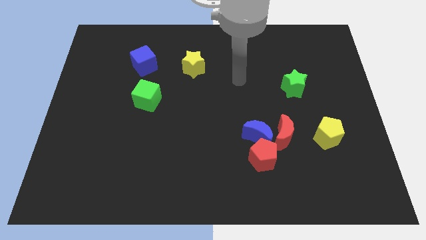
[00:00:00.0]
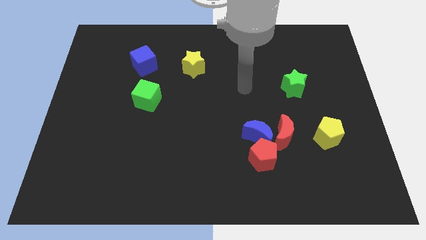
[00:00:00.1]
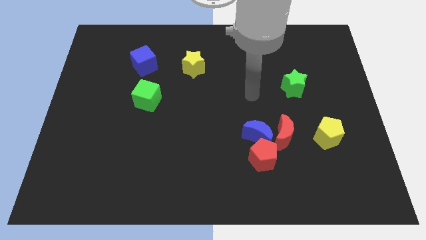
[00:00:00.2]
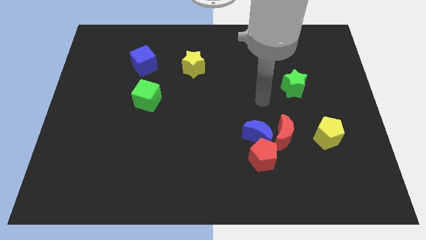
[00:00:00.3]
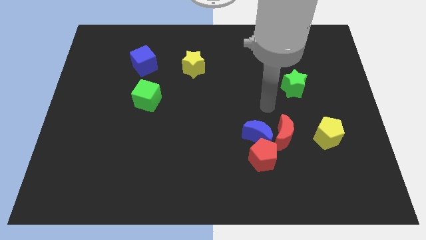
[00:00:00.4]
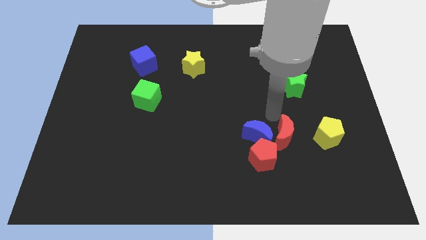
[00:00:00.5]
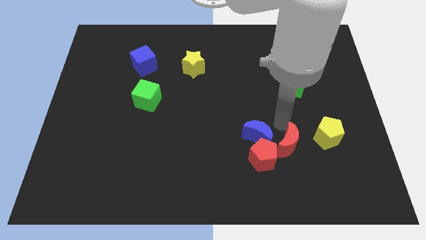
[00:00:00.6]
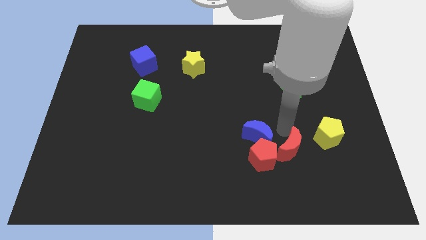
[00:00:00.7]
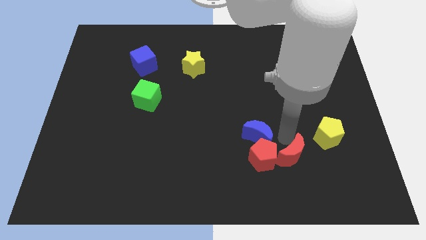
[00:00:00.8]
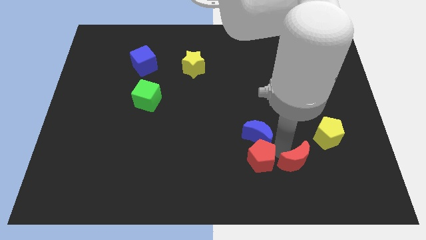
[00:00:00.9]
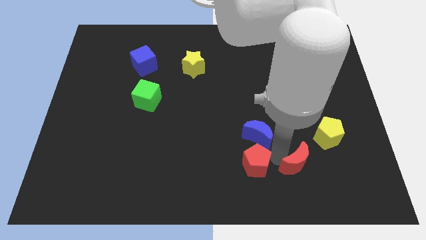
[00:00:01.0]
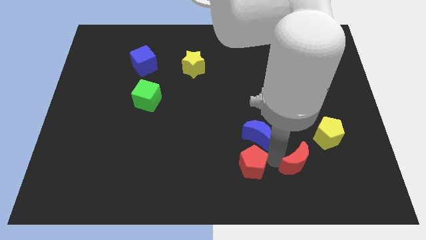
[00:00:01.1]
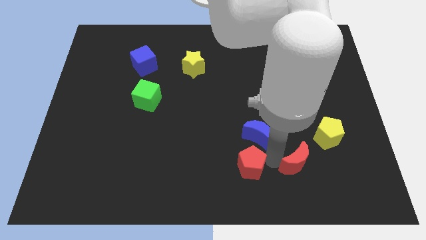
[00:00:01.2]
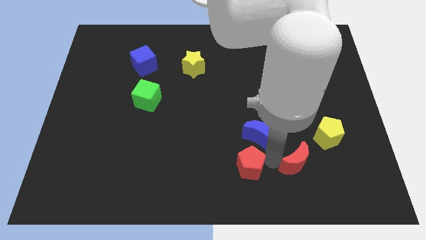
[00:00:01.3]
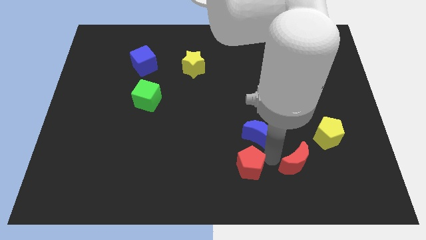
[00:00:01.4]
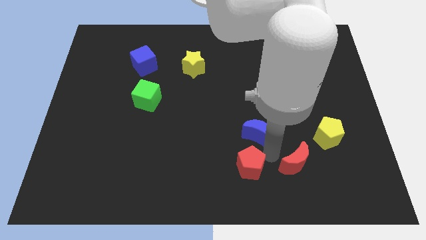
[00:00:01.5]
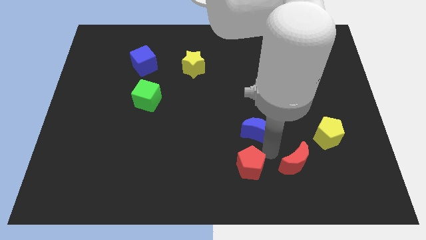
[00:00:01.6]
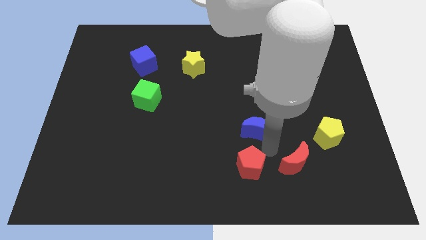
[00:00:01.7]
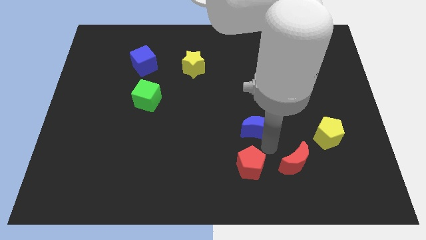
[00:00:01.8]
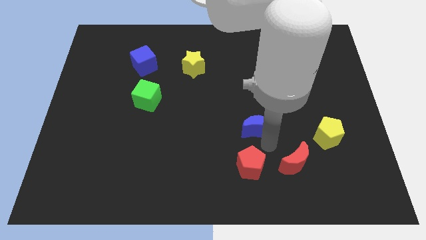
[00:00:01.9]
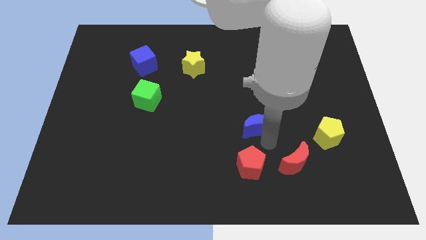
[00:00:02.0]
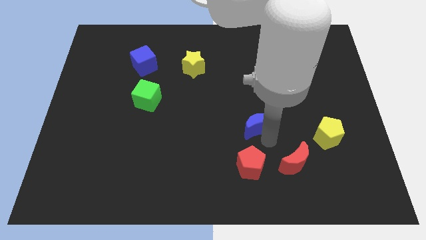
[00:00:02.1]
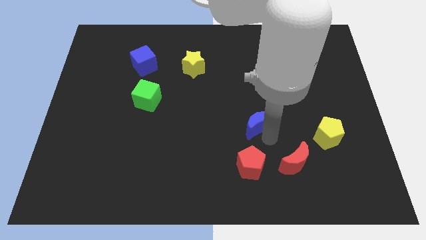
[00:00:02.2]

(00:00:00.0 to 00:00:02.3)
move the blue moon away from the red pentagon and red moon

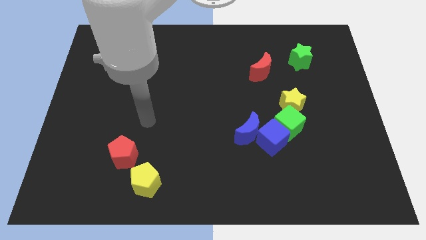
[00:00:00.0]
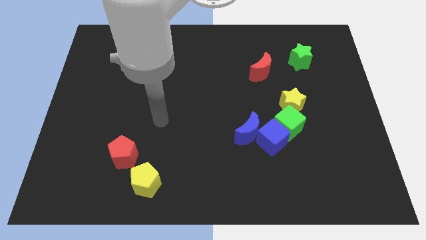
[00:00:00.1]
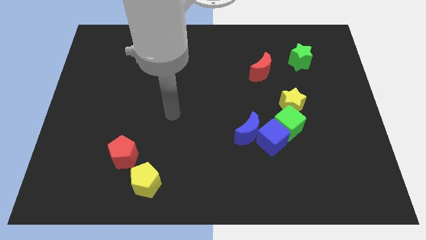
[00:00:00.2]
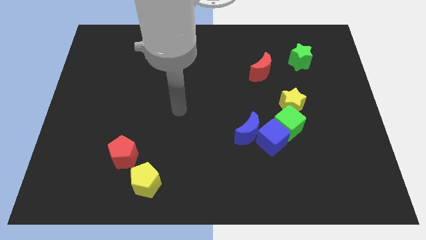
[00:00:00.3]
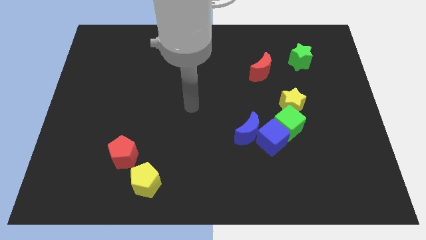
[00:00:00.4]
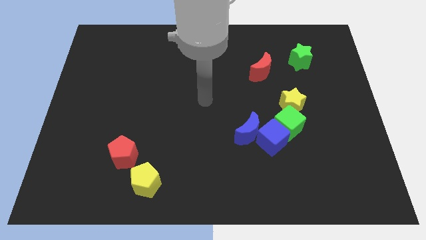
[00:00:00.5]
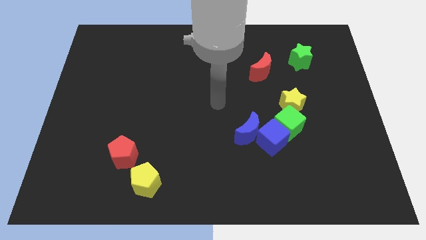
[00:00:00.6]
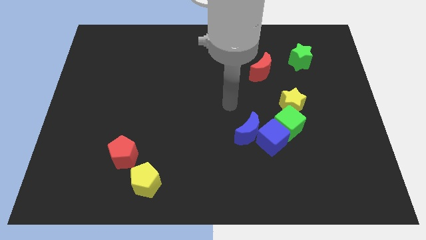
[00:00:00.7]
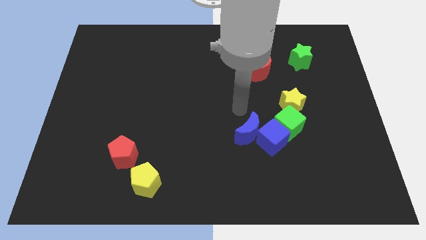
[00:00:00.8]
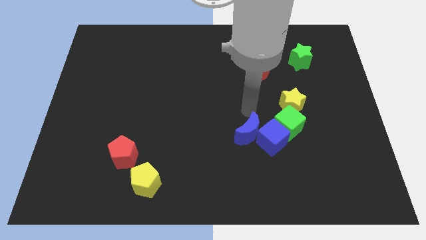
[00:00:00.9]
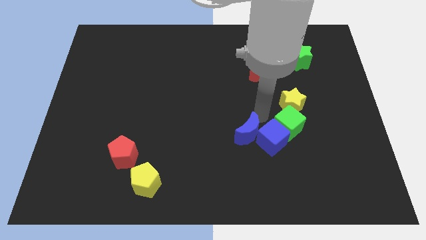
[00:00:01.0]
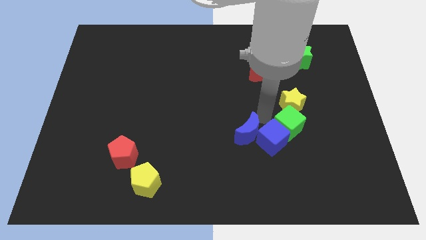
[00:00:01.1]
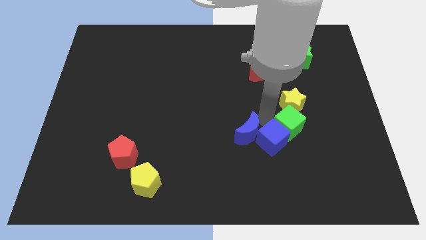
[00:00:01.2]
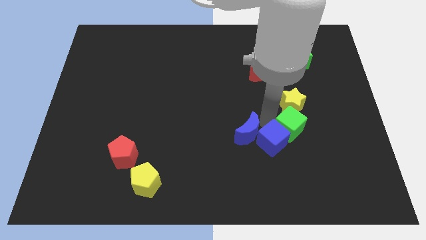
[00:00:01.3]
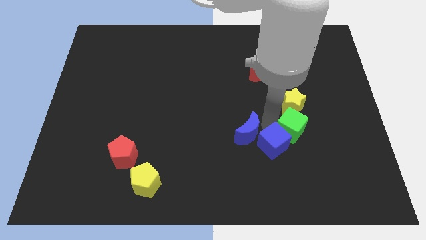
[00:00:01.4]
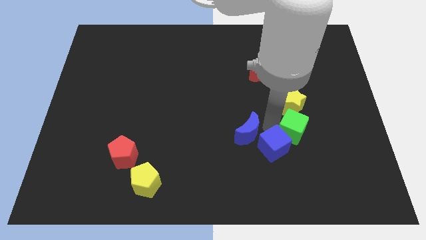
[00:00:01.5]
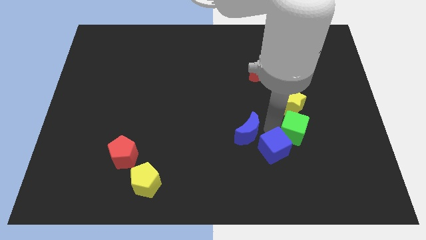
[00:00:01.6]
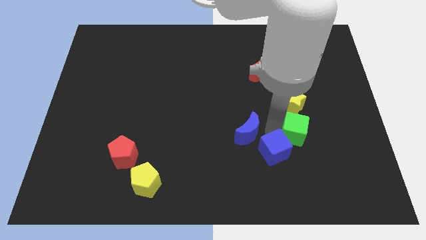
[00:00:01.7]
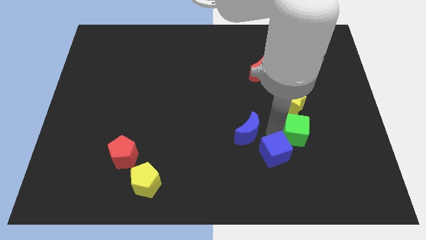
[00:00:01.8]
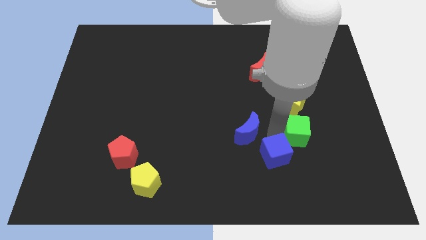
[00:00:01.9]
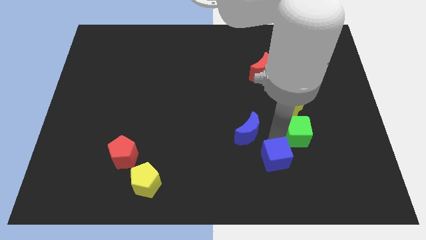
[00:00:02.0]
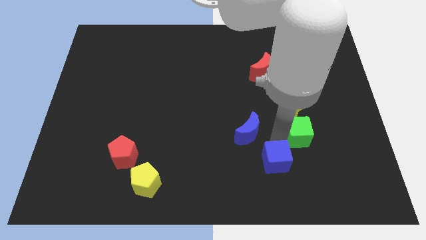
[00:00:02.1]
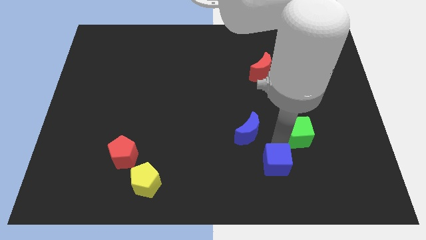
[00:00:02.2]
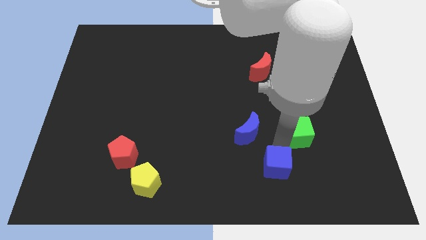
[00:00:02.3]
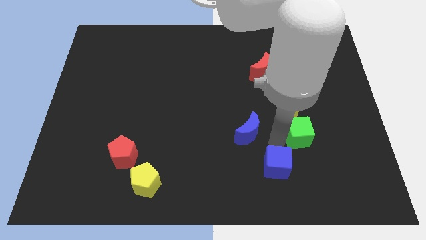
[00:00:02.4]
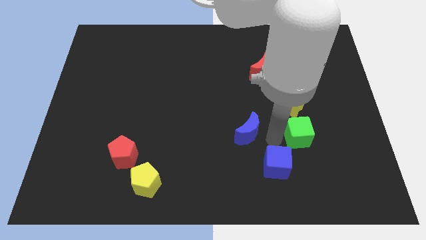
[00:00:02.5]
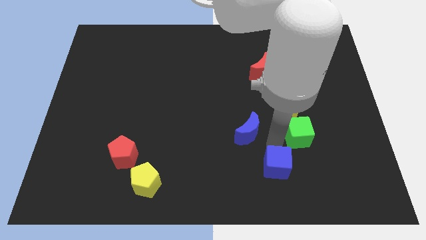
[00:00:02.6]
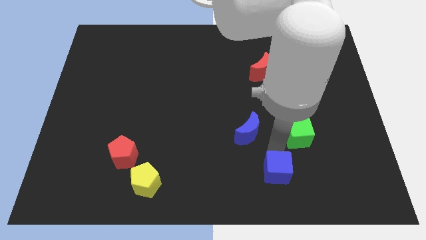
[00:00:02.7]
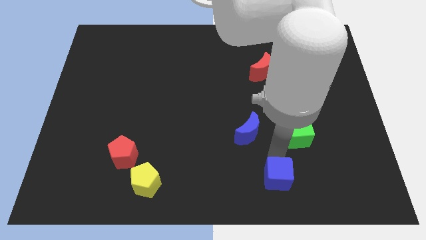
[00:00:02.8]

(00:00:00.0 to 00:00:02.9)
separate the blue cube from the blue moon and green cube

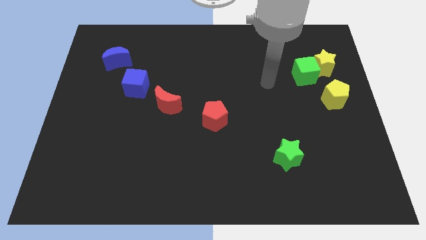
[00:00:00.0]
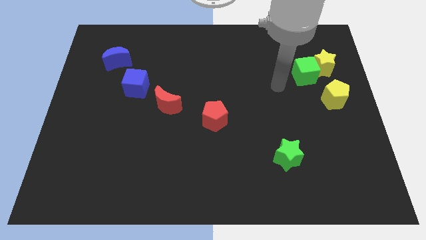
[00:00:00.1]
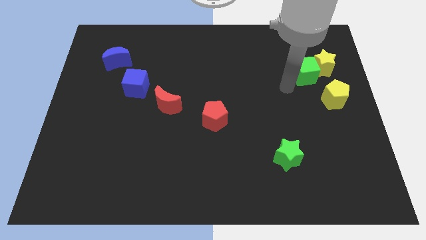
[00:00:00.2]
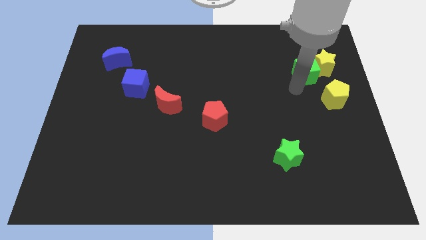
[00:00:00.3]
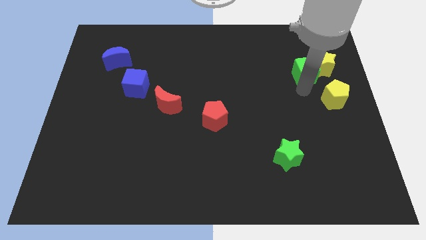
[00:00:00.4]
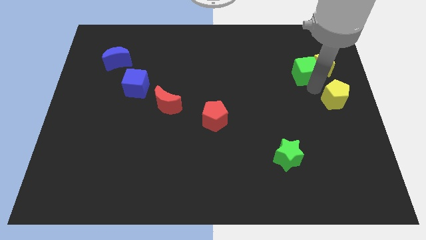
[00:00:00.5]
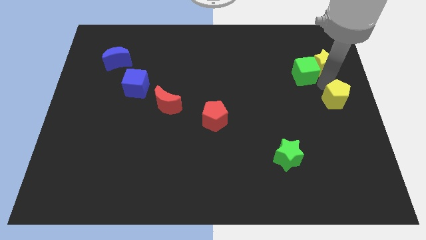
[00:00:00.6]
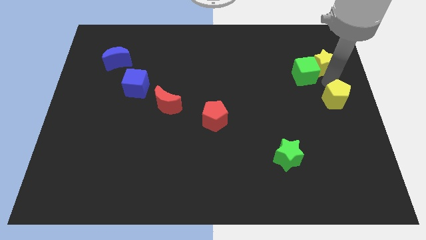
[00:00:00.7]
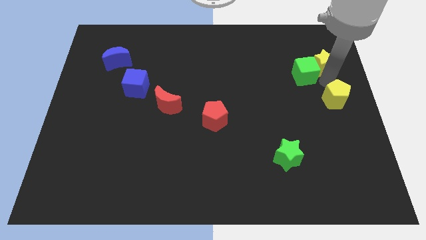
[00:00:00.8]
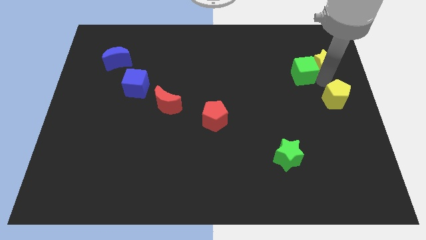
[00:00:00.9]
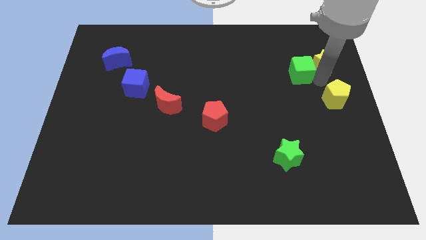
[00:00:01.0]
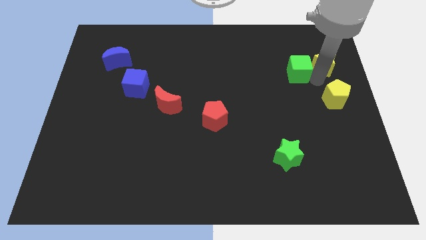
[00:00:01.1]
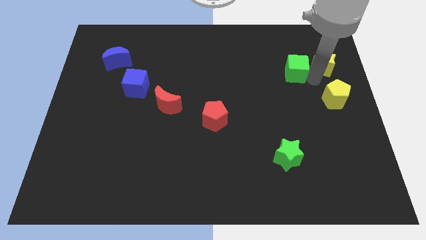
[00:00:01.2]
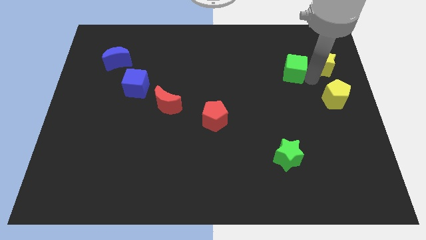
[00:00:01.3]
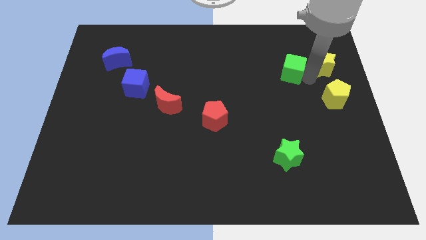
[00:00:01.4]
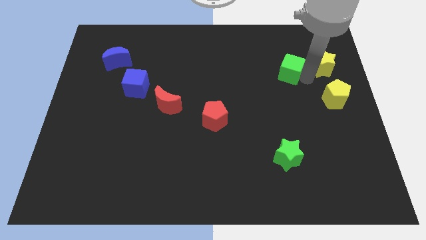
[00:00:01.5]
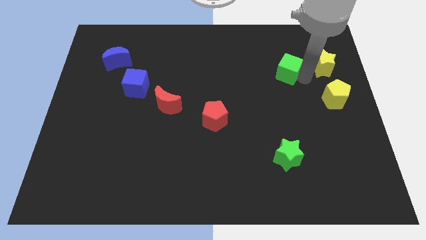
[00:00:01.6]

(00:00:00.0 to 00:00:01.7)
separate the green cube from the yellow star and yellow pentagon

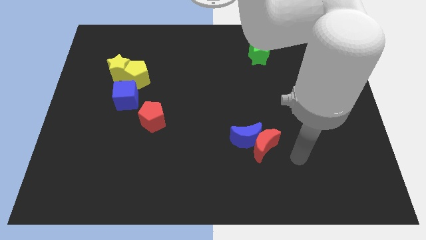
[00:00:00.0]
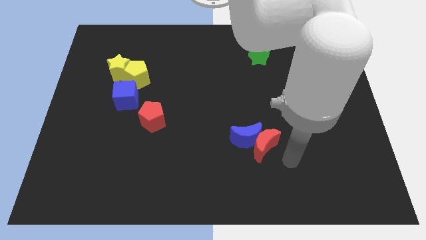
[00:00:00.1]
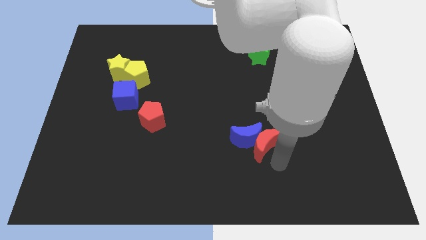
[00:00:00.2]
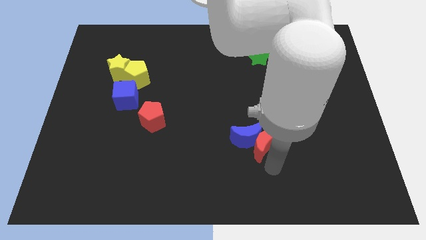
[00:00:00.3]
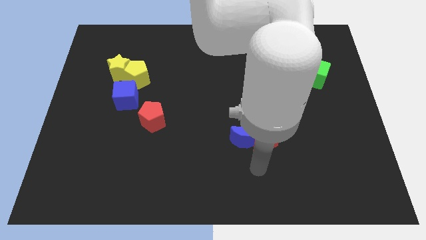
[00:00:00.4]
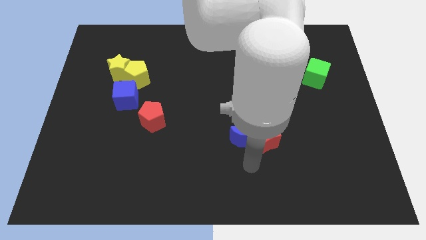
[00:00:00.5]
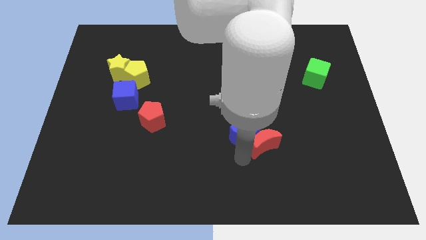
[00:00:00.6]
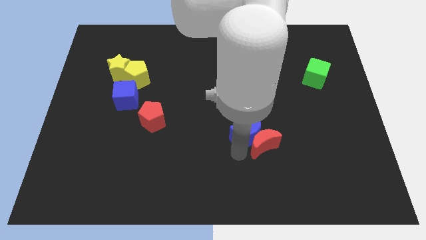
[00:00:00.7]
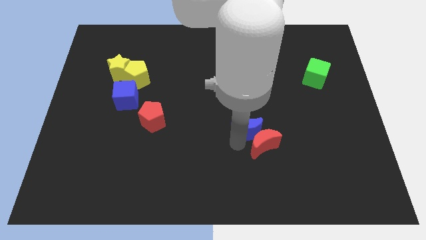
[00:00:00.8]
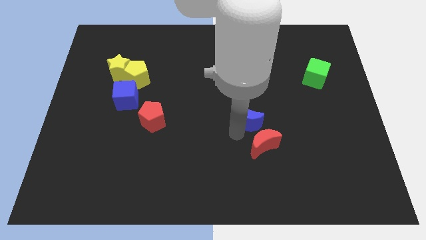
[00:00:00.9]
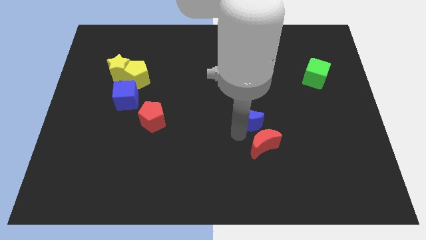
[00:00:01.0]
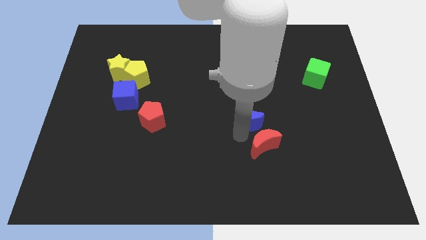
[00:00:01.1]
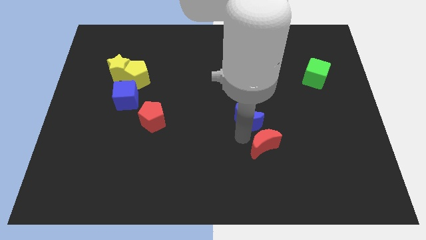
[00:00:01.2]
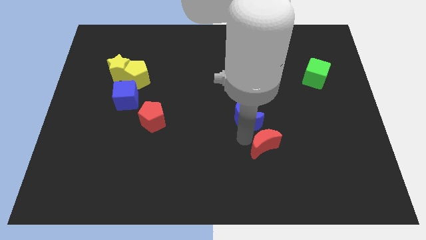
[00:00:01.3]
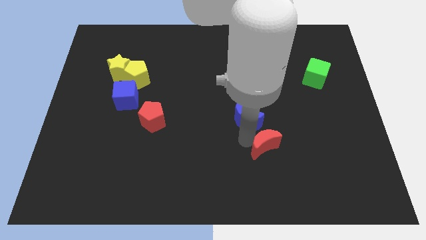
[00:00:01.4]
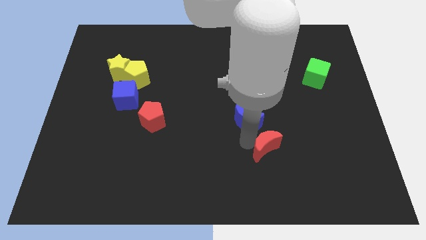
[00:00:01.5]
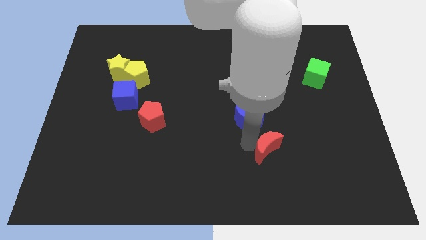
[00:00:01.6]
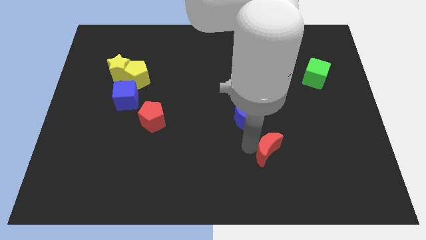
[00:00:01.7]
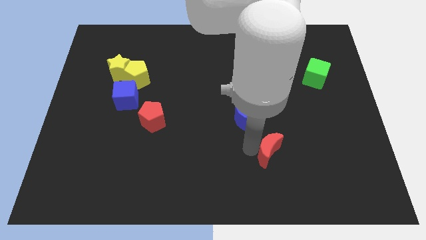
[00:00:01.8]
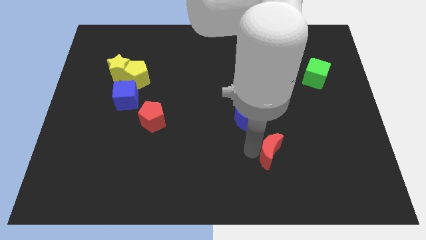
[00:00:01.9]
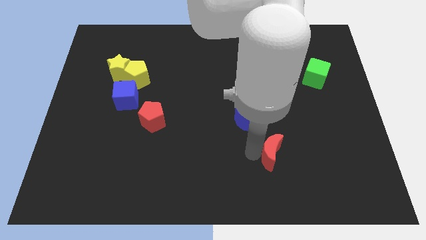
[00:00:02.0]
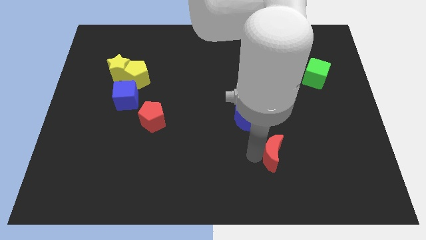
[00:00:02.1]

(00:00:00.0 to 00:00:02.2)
separate the red moon from the blue moon

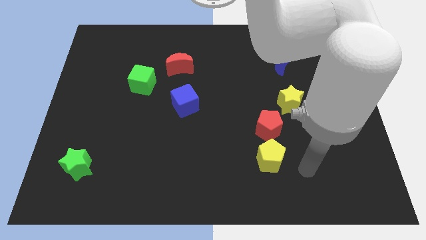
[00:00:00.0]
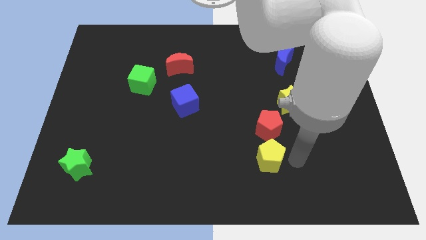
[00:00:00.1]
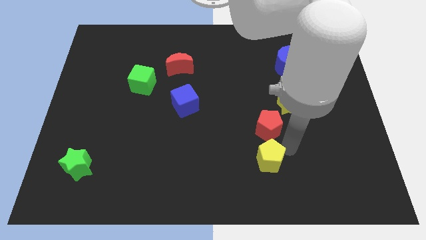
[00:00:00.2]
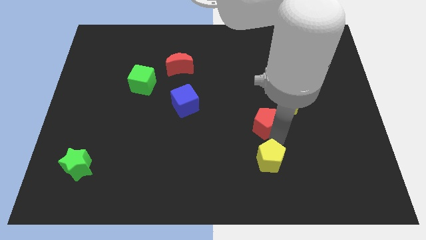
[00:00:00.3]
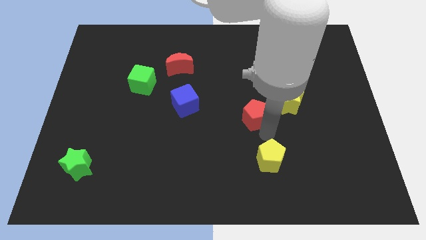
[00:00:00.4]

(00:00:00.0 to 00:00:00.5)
pull the yellow pentagon apart from the red pentagon
